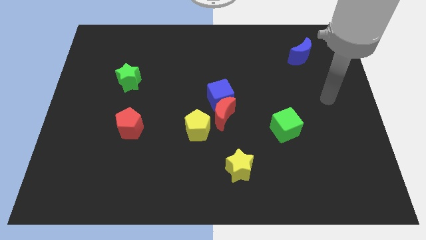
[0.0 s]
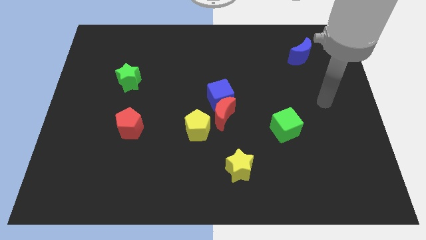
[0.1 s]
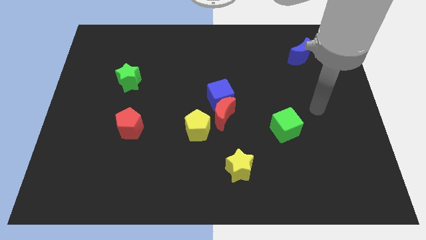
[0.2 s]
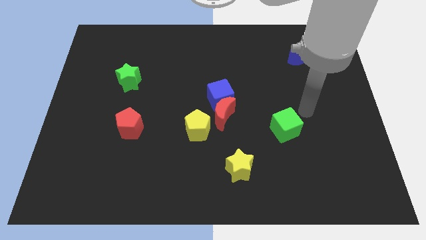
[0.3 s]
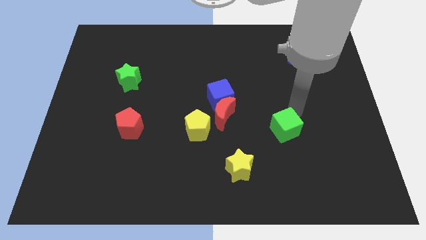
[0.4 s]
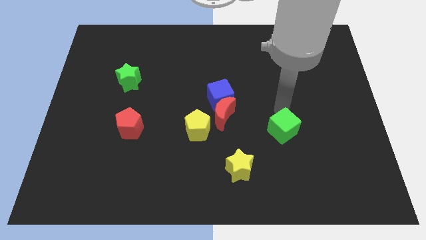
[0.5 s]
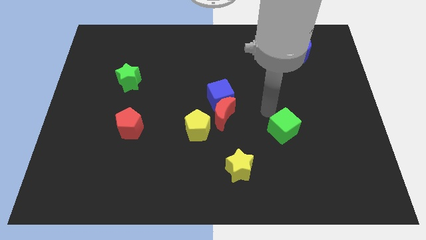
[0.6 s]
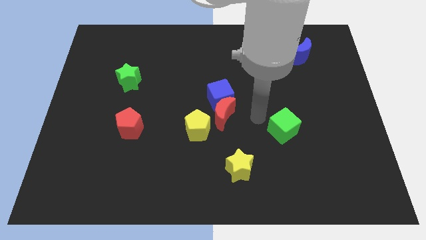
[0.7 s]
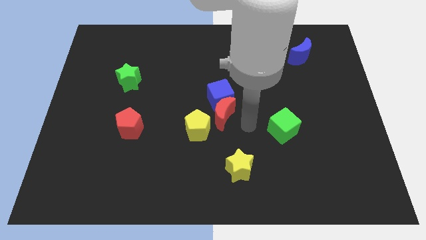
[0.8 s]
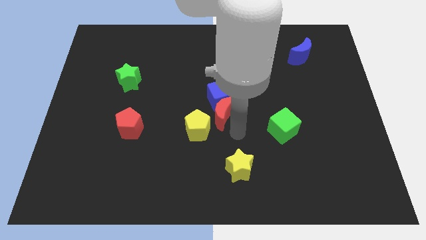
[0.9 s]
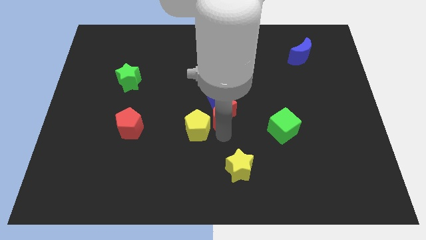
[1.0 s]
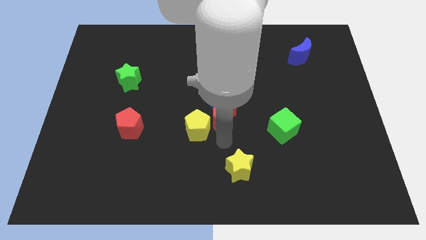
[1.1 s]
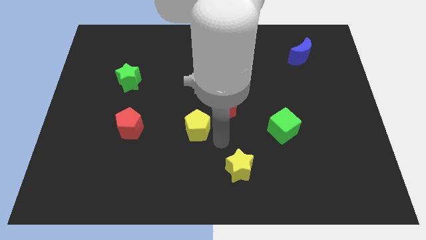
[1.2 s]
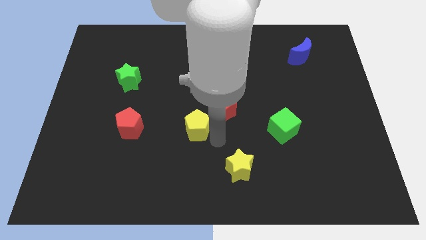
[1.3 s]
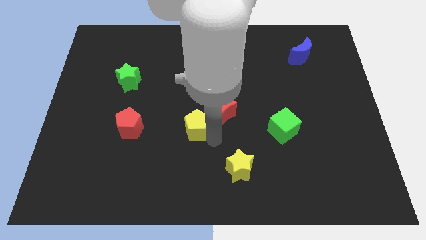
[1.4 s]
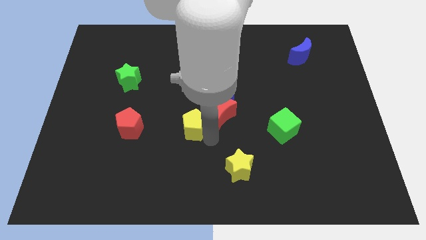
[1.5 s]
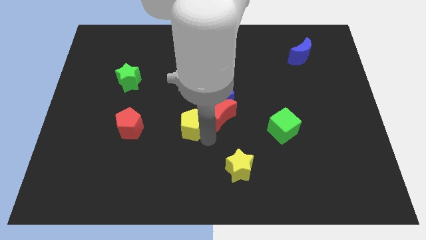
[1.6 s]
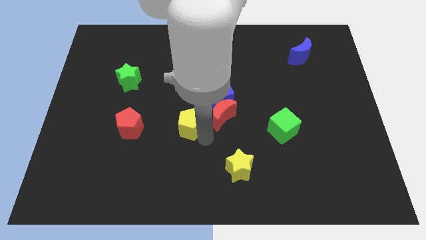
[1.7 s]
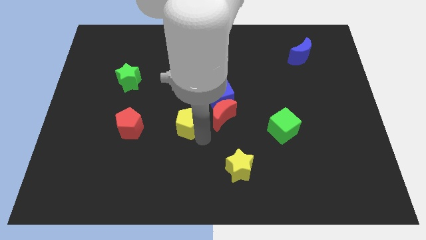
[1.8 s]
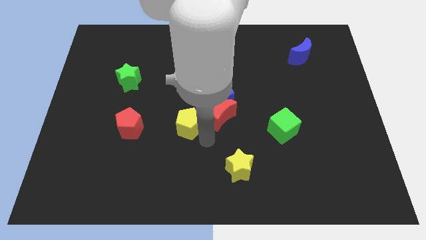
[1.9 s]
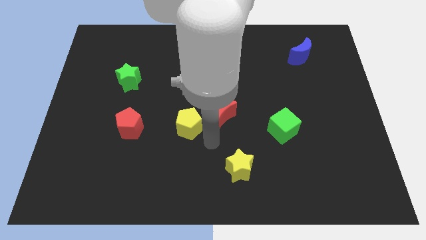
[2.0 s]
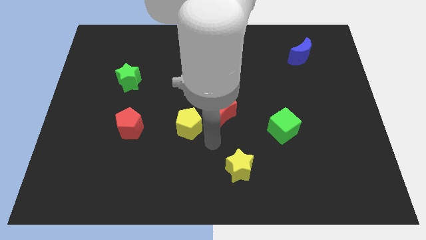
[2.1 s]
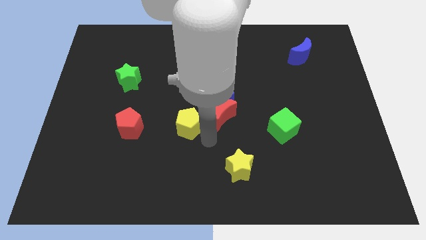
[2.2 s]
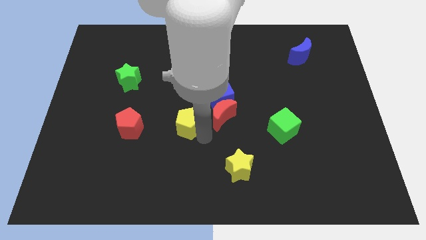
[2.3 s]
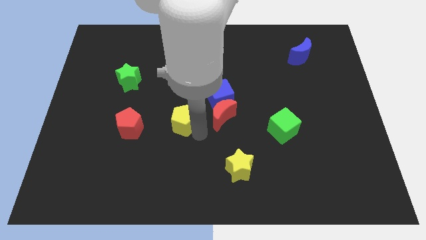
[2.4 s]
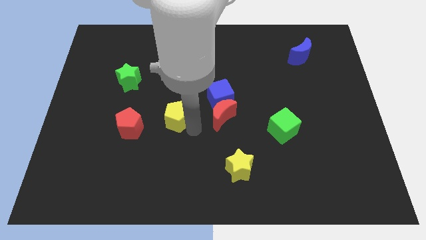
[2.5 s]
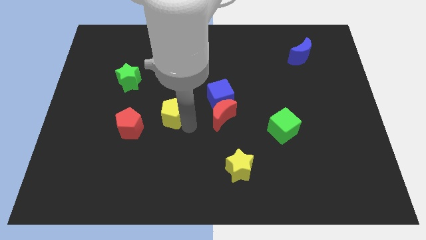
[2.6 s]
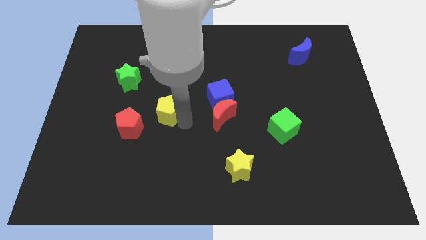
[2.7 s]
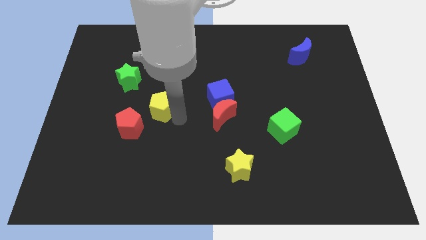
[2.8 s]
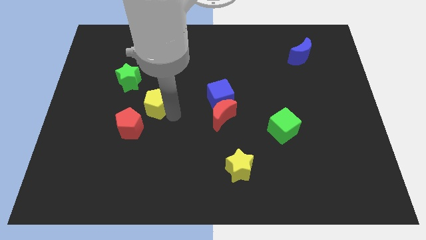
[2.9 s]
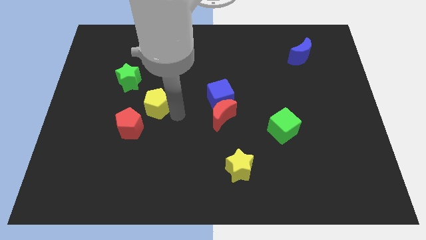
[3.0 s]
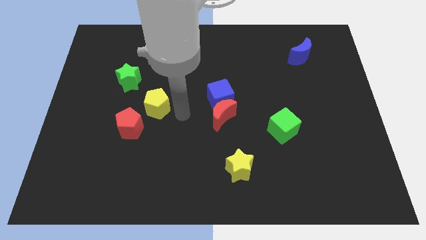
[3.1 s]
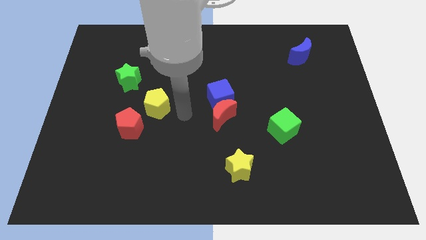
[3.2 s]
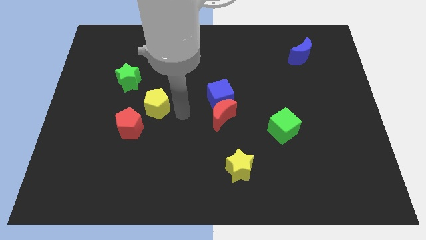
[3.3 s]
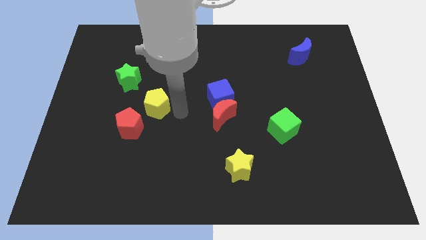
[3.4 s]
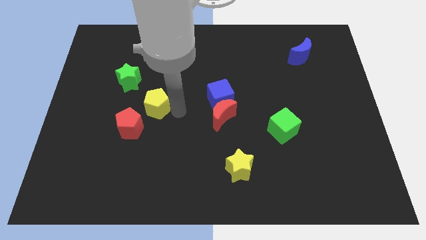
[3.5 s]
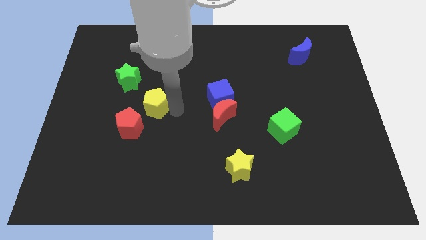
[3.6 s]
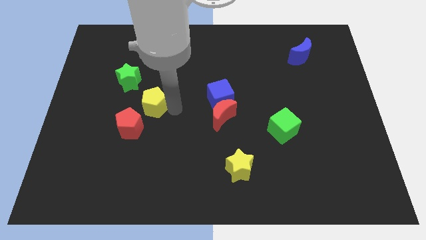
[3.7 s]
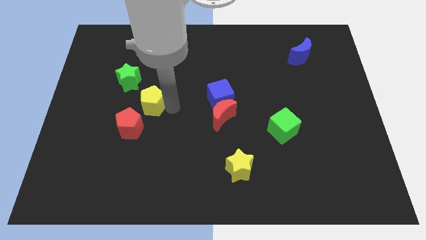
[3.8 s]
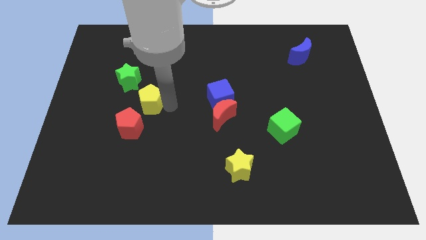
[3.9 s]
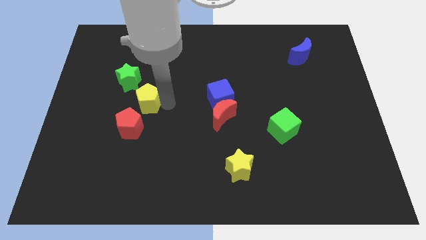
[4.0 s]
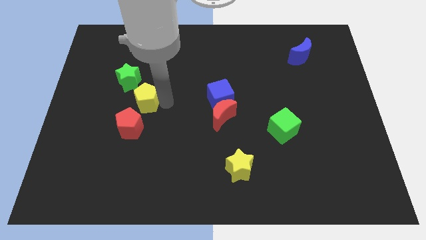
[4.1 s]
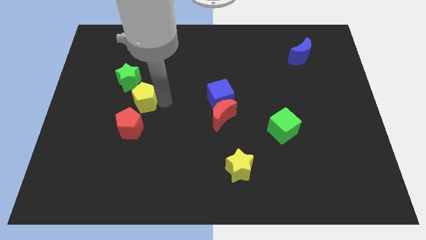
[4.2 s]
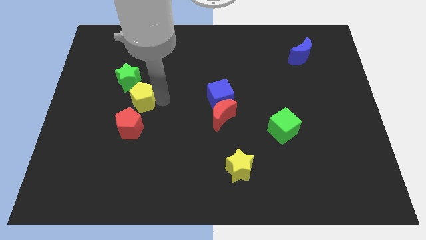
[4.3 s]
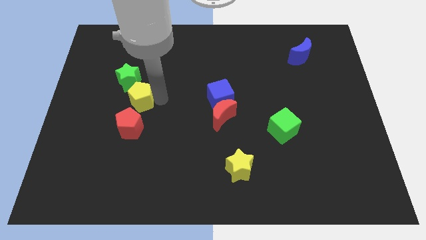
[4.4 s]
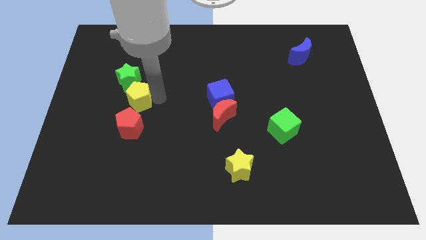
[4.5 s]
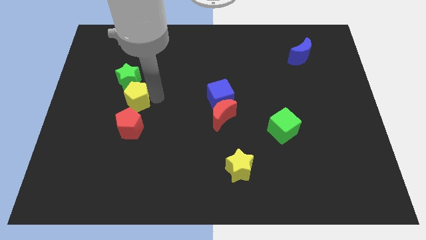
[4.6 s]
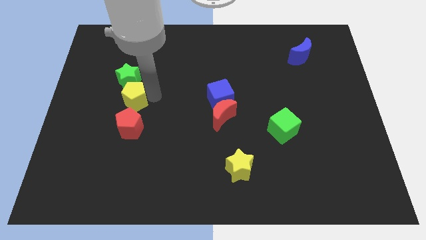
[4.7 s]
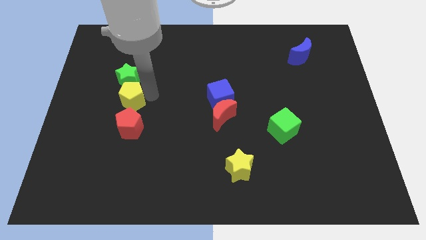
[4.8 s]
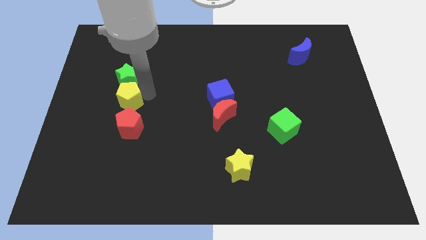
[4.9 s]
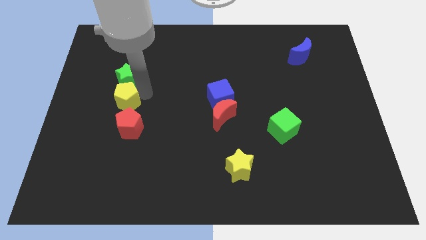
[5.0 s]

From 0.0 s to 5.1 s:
slide the yellow pentagon to the top left of the red pentagon

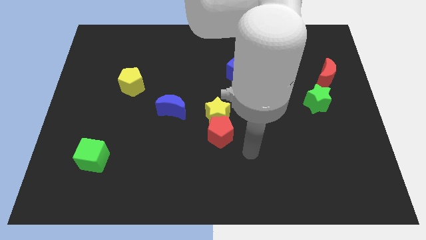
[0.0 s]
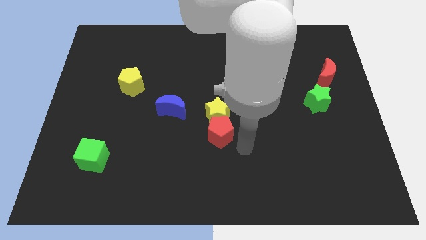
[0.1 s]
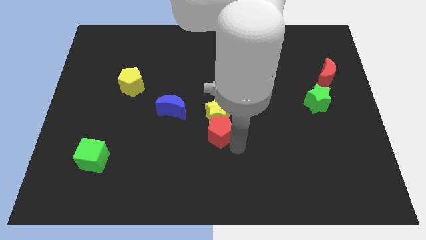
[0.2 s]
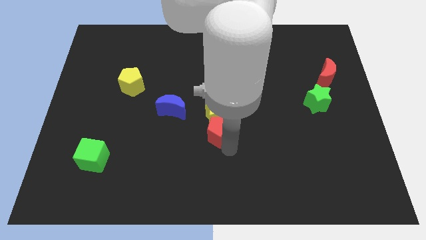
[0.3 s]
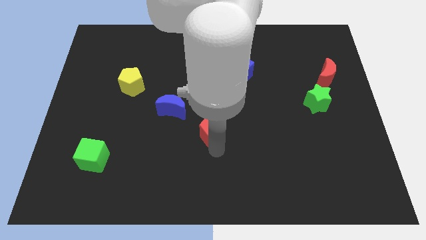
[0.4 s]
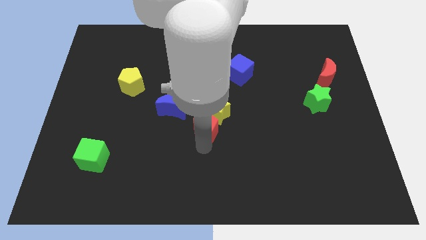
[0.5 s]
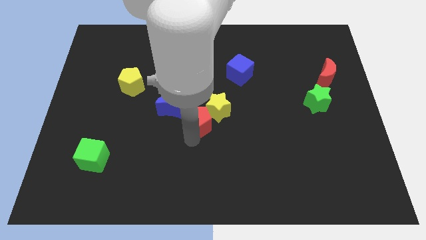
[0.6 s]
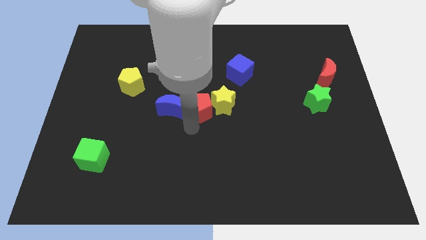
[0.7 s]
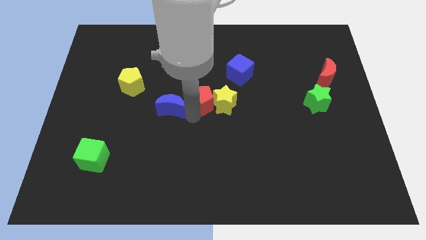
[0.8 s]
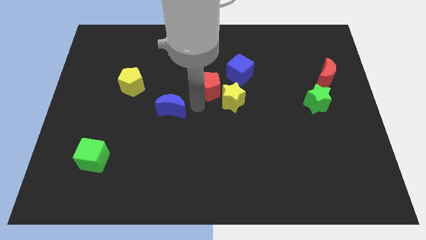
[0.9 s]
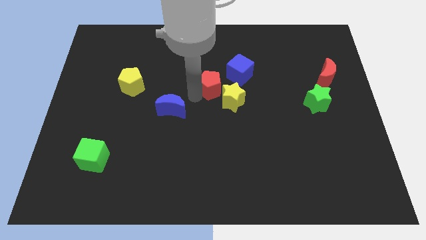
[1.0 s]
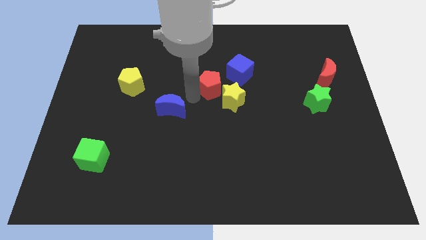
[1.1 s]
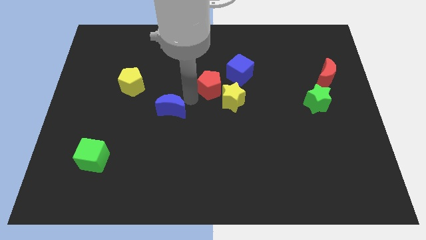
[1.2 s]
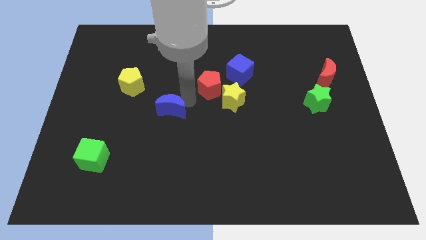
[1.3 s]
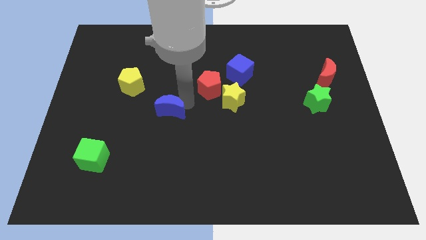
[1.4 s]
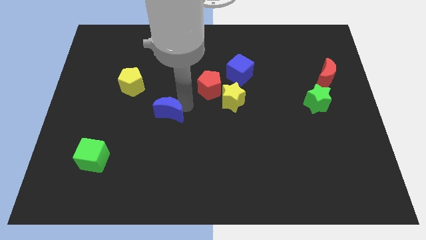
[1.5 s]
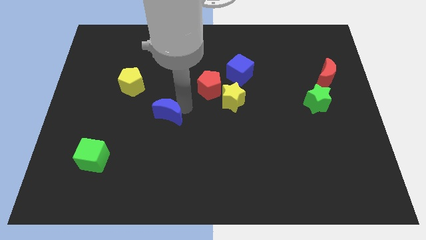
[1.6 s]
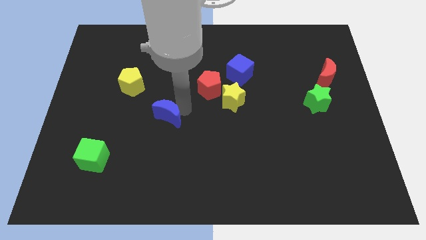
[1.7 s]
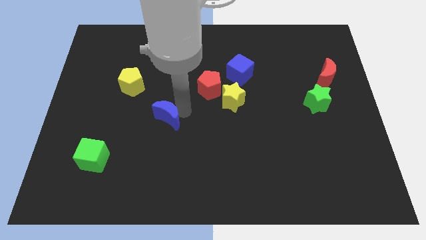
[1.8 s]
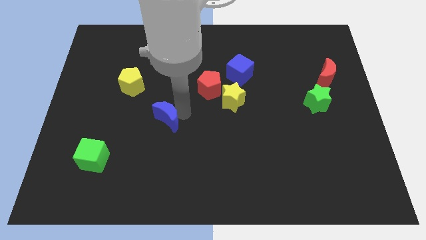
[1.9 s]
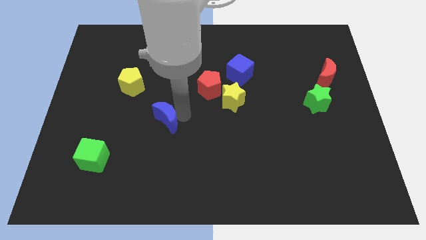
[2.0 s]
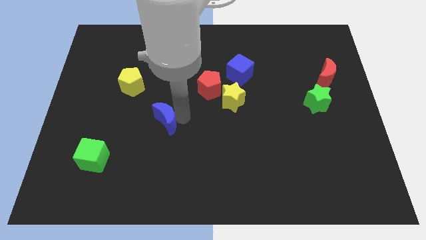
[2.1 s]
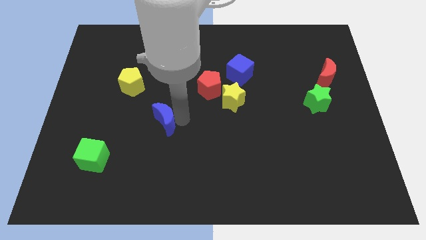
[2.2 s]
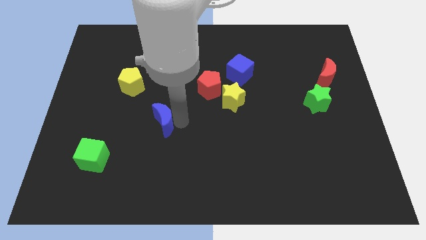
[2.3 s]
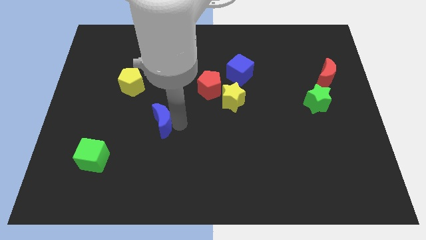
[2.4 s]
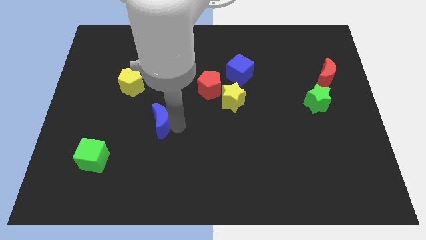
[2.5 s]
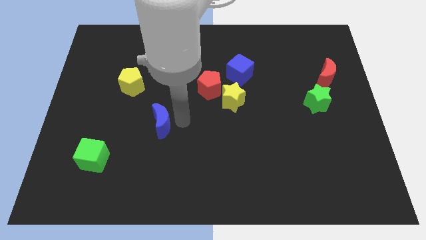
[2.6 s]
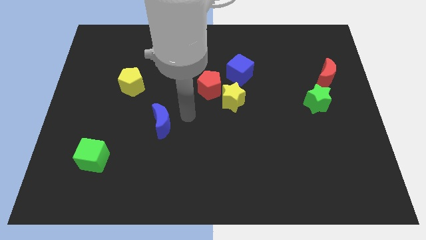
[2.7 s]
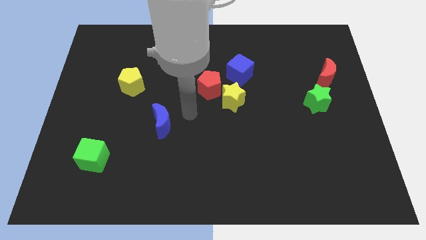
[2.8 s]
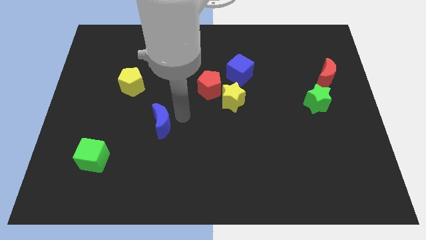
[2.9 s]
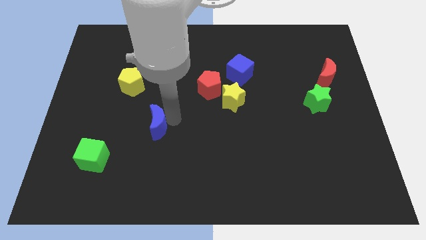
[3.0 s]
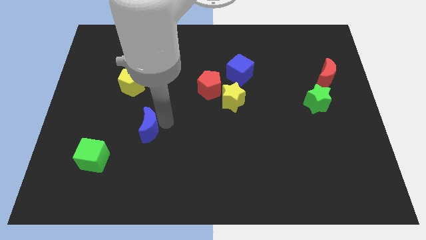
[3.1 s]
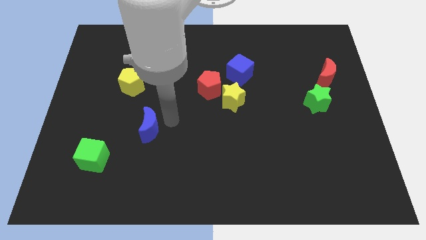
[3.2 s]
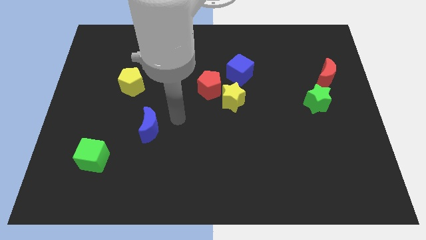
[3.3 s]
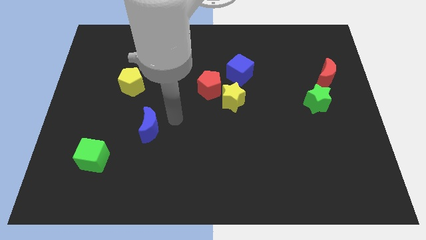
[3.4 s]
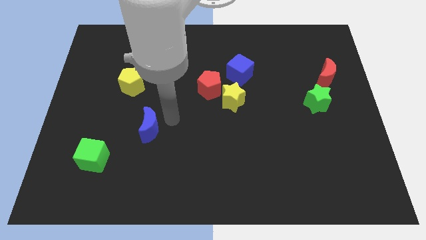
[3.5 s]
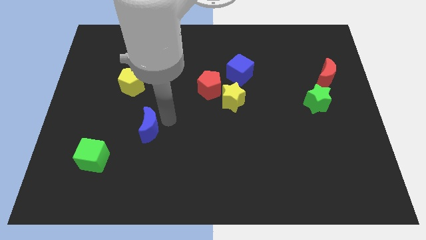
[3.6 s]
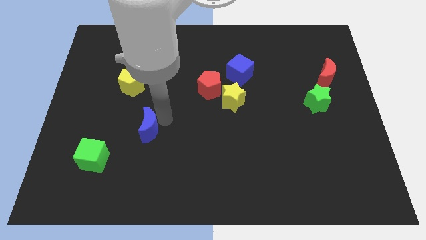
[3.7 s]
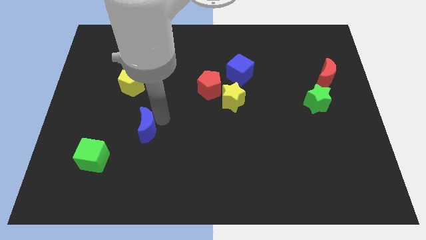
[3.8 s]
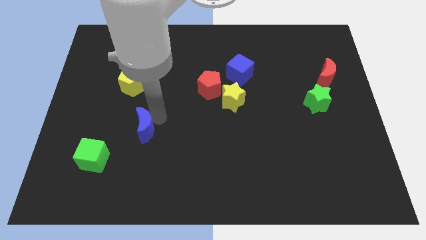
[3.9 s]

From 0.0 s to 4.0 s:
put the blue moon diagonally up and to the right of the green cube
